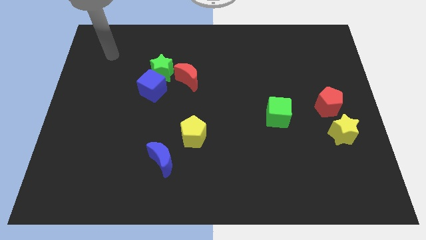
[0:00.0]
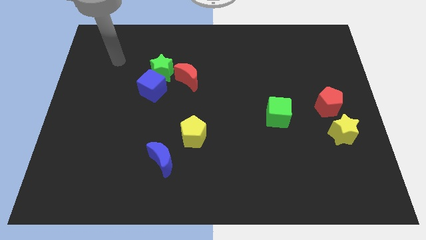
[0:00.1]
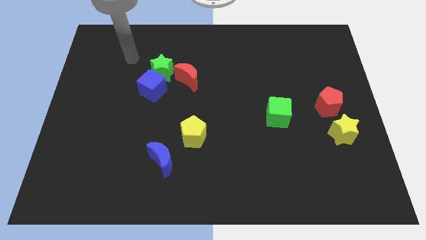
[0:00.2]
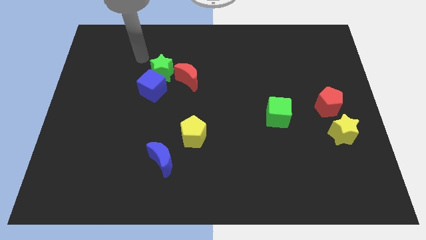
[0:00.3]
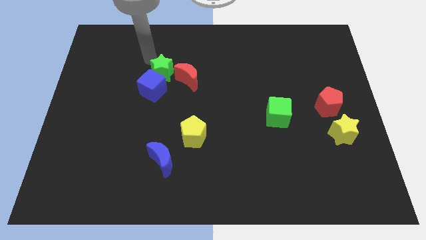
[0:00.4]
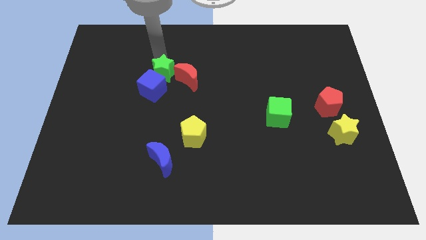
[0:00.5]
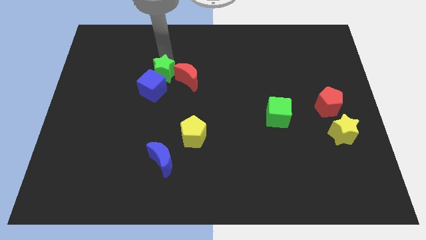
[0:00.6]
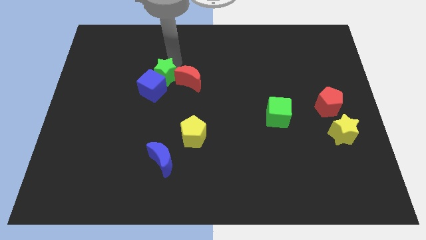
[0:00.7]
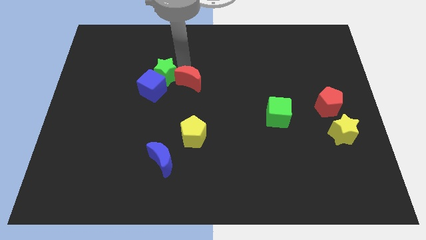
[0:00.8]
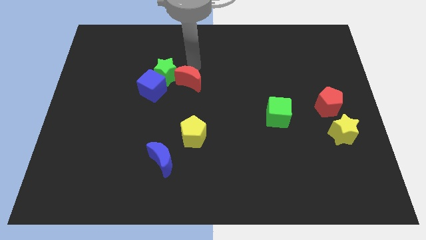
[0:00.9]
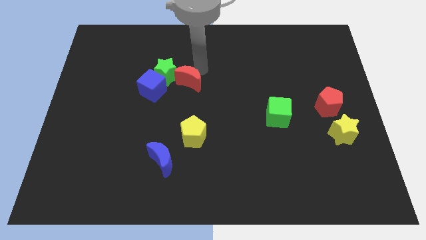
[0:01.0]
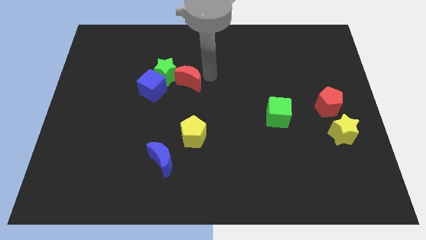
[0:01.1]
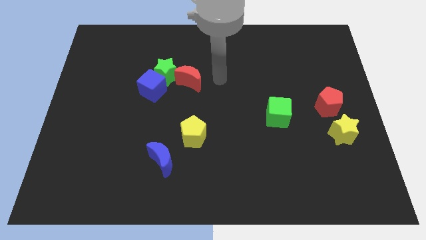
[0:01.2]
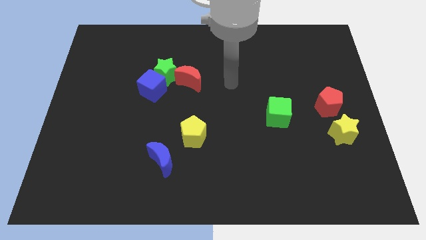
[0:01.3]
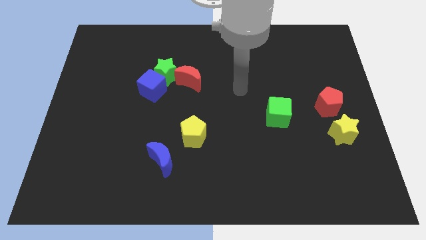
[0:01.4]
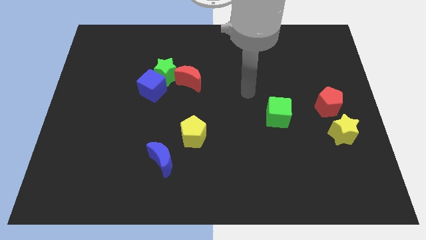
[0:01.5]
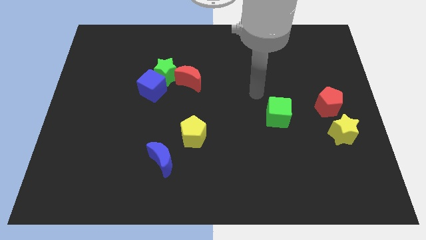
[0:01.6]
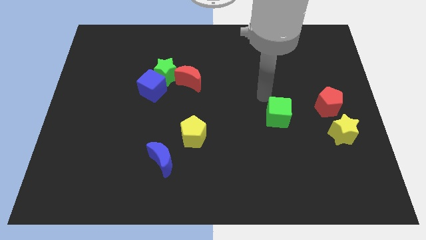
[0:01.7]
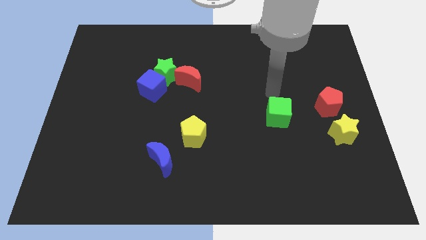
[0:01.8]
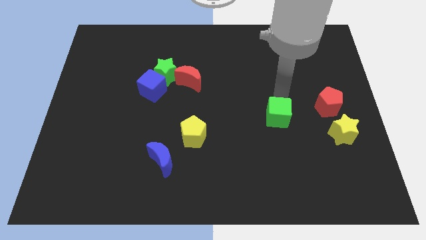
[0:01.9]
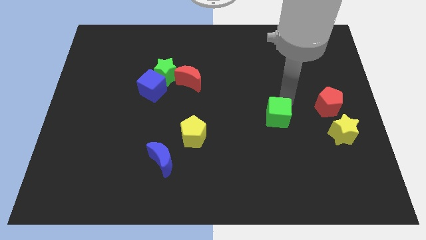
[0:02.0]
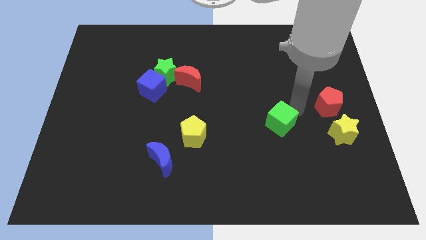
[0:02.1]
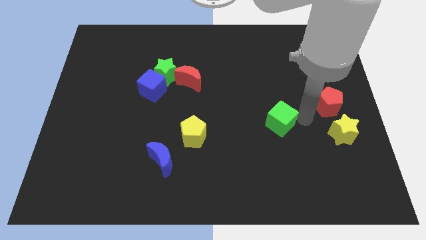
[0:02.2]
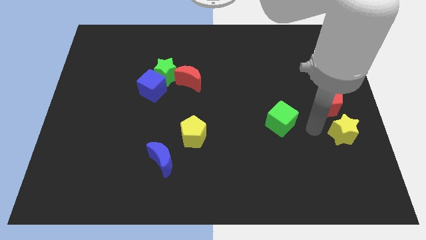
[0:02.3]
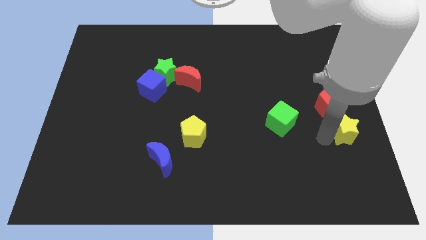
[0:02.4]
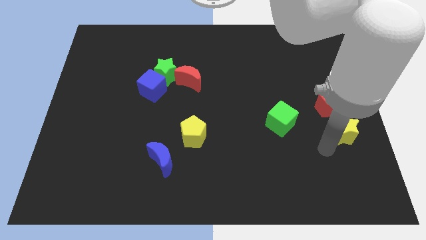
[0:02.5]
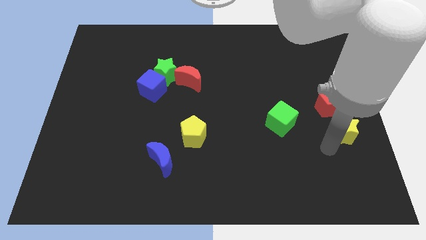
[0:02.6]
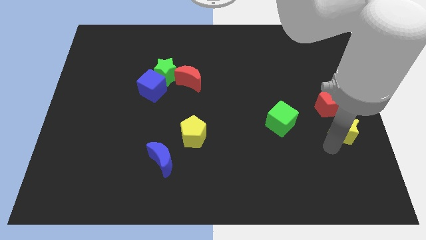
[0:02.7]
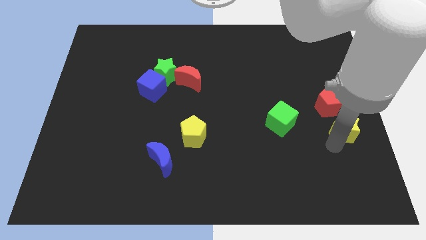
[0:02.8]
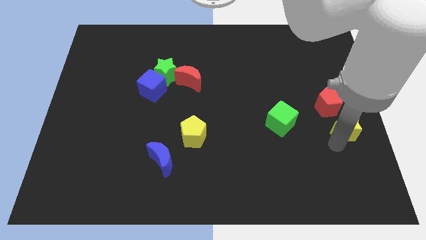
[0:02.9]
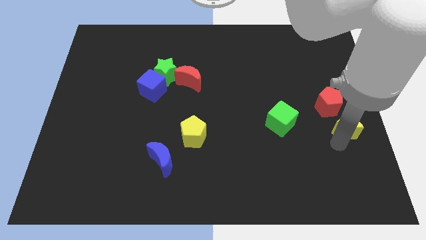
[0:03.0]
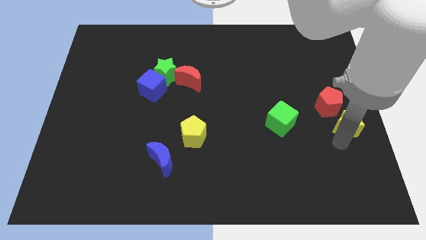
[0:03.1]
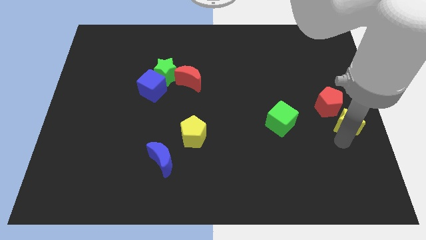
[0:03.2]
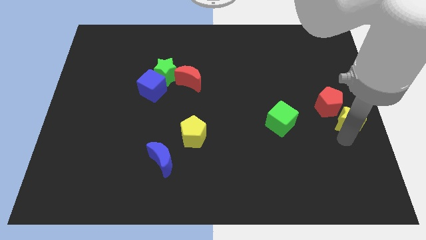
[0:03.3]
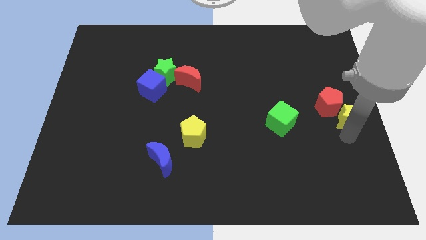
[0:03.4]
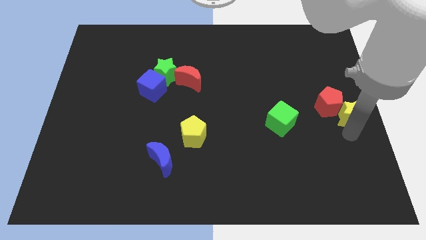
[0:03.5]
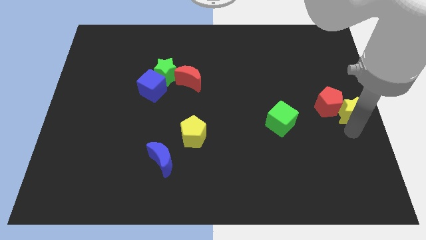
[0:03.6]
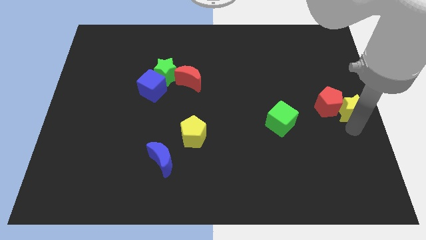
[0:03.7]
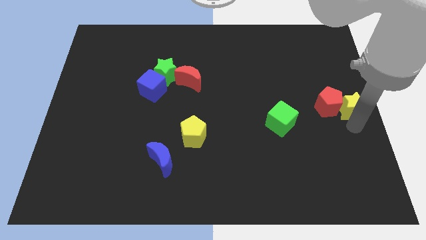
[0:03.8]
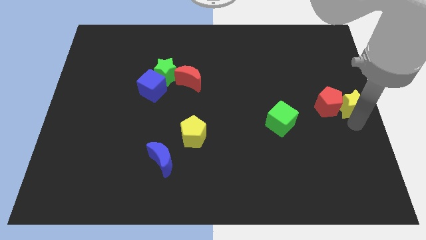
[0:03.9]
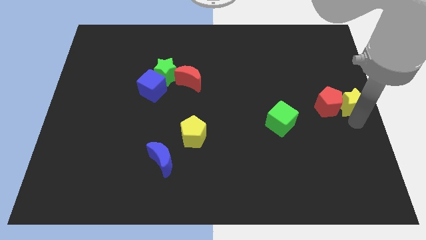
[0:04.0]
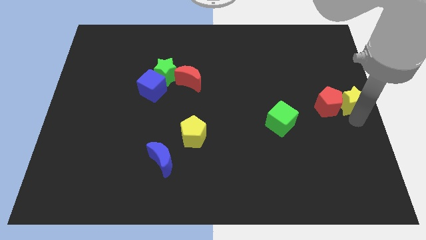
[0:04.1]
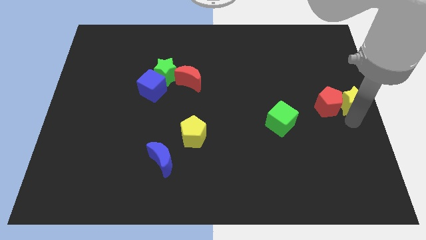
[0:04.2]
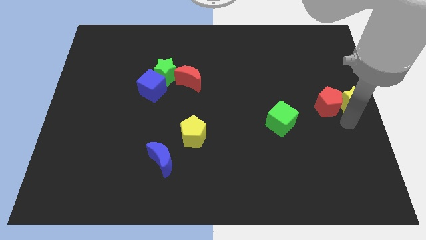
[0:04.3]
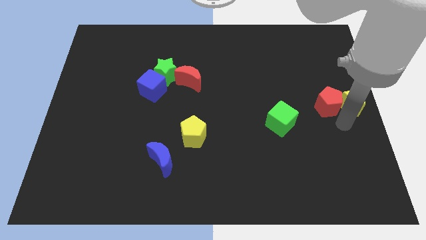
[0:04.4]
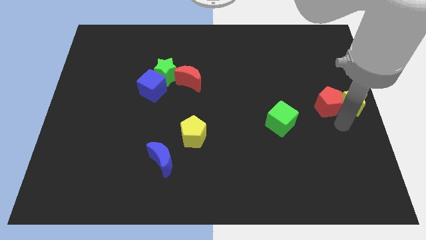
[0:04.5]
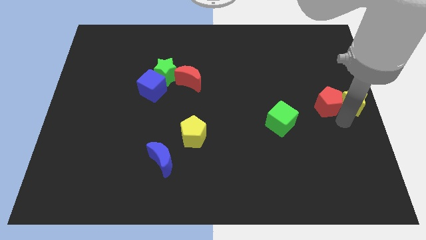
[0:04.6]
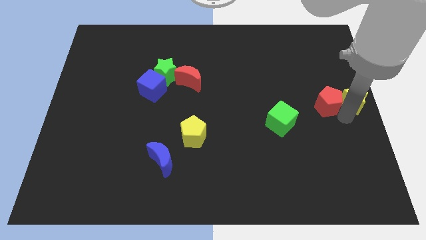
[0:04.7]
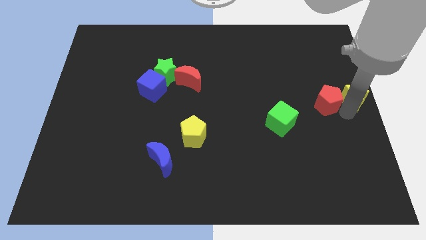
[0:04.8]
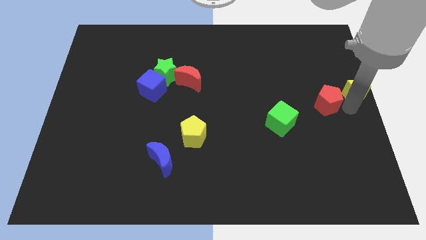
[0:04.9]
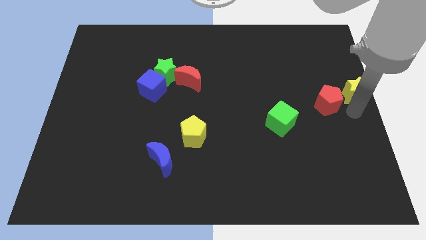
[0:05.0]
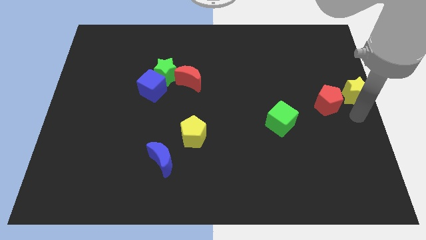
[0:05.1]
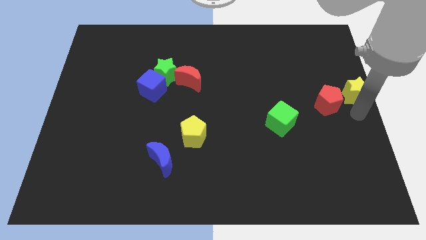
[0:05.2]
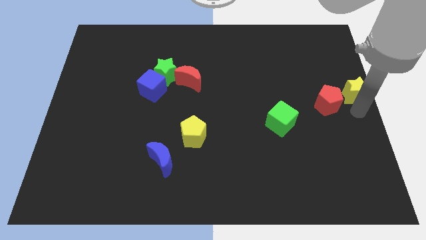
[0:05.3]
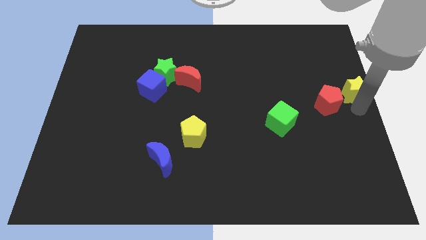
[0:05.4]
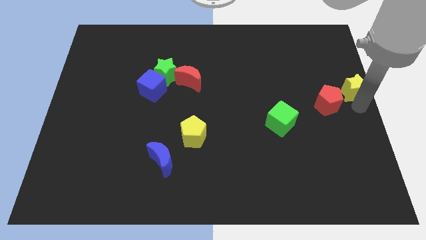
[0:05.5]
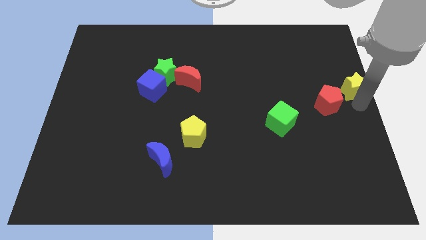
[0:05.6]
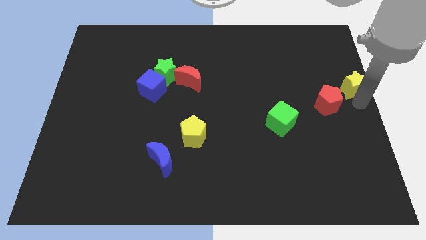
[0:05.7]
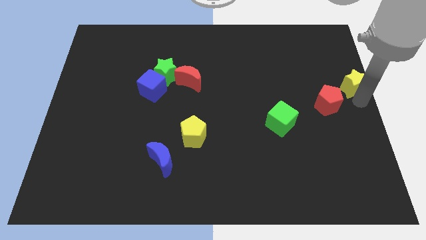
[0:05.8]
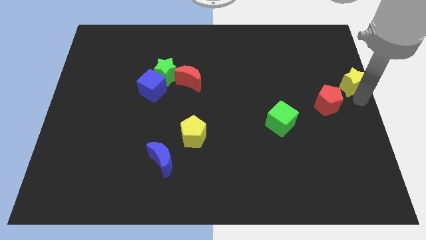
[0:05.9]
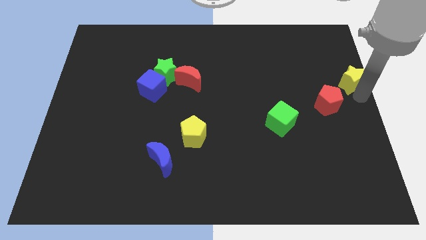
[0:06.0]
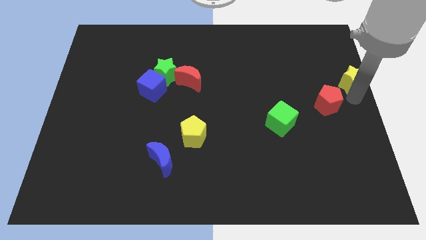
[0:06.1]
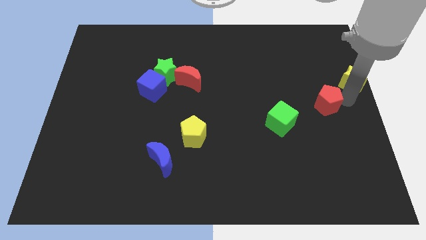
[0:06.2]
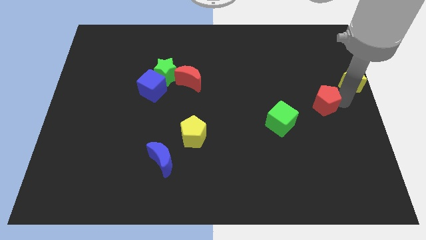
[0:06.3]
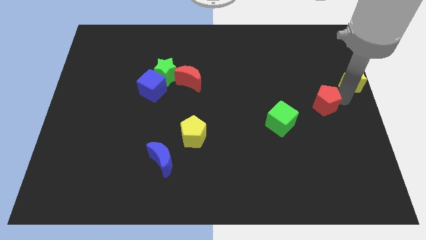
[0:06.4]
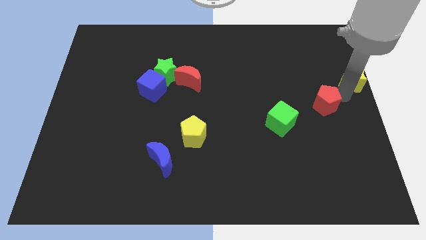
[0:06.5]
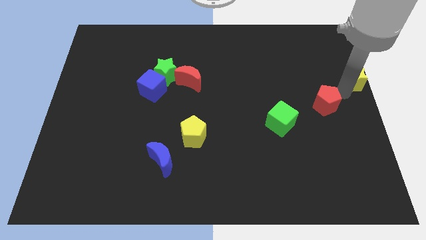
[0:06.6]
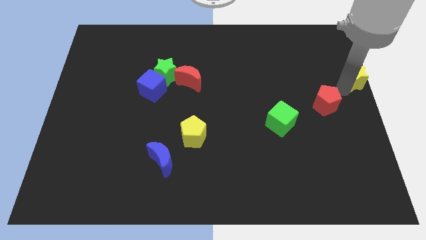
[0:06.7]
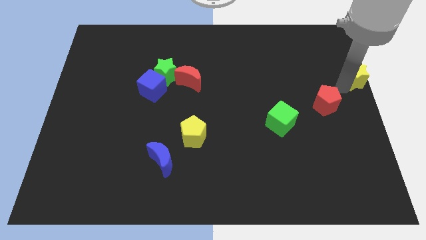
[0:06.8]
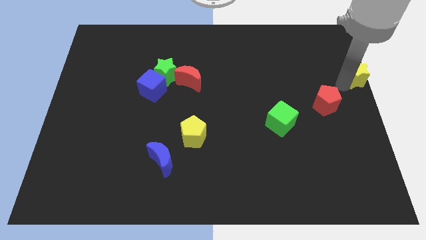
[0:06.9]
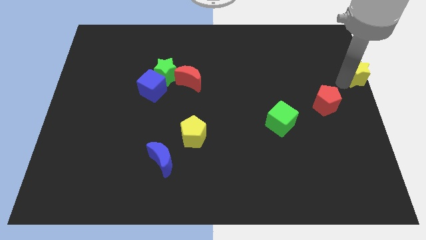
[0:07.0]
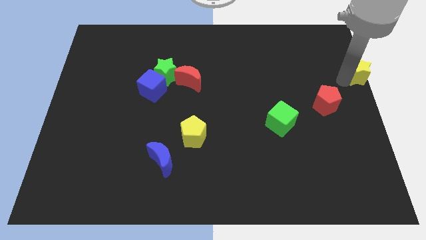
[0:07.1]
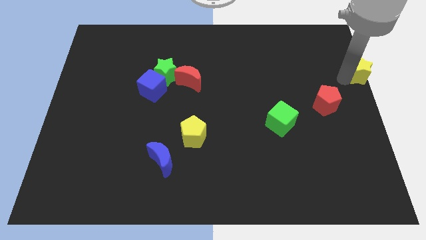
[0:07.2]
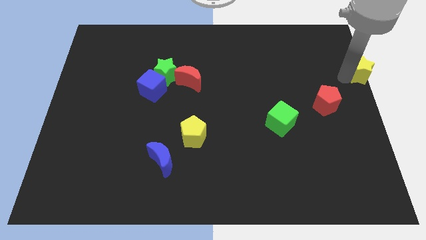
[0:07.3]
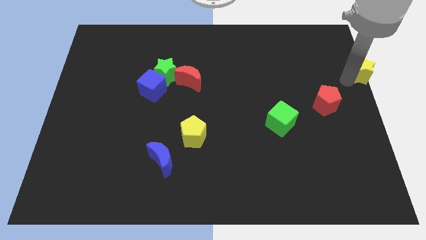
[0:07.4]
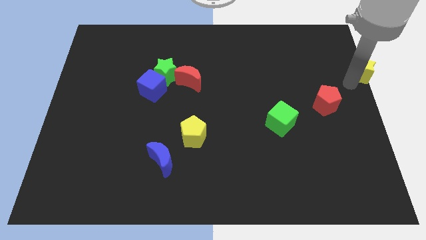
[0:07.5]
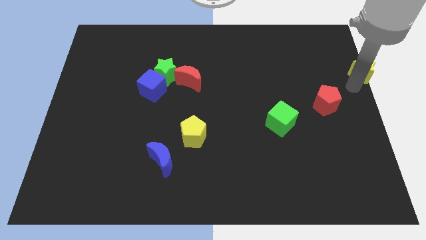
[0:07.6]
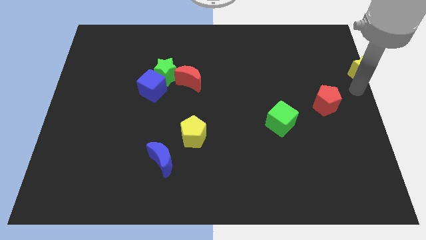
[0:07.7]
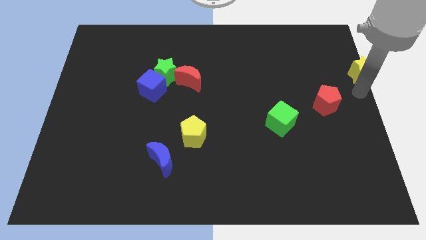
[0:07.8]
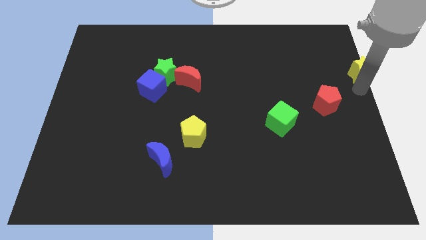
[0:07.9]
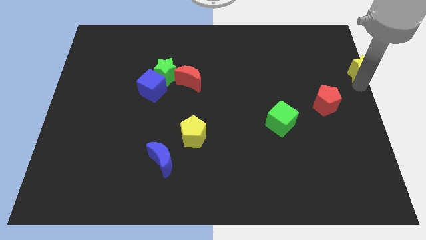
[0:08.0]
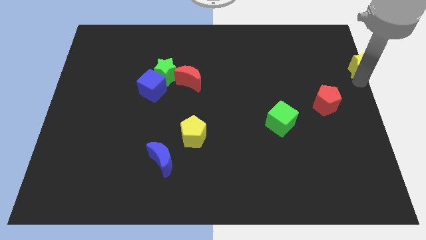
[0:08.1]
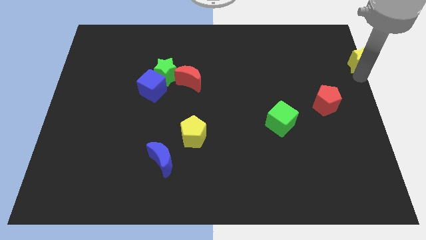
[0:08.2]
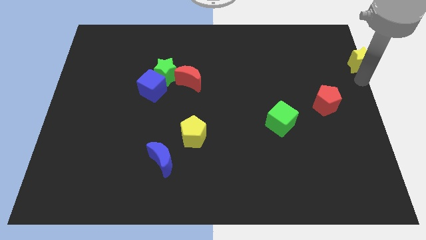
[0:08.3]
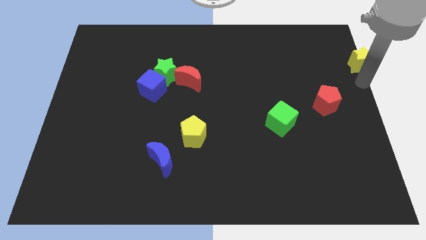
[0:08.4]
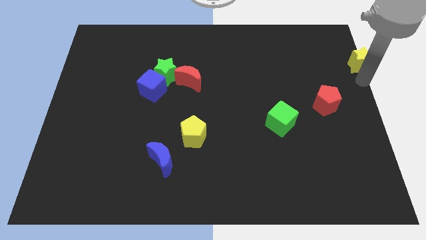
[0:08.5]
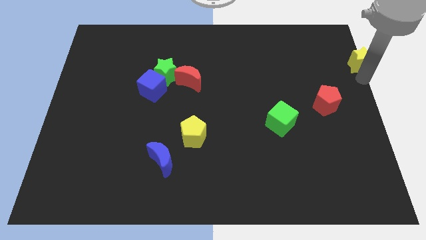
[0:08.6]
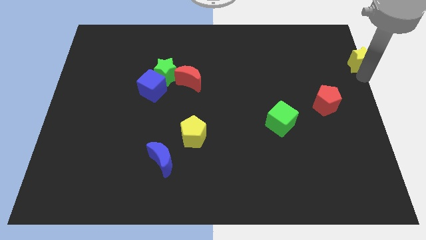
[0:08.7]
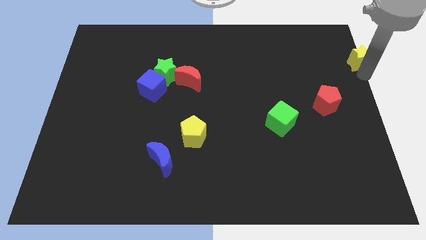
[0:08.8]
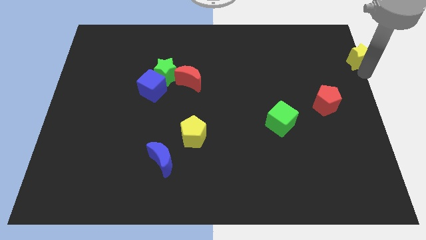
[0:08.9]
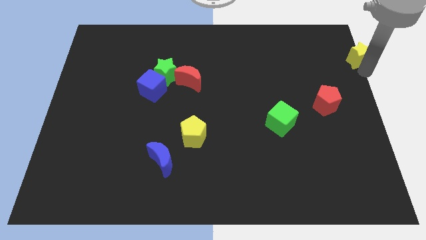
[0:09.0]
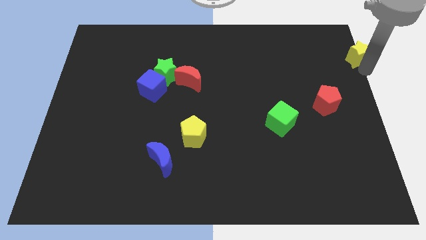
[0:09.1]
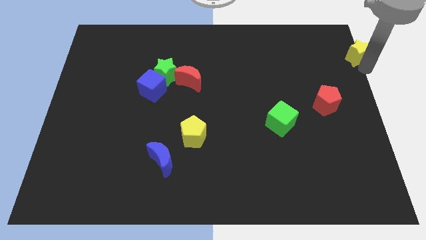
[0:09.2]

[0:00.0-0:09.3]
put the yellow star to the top right of the board
